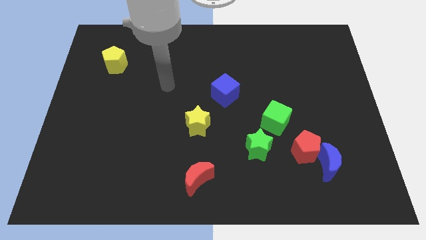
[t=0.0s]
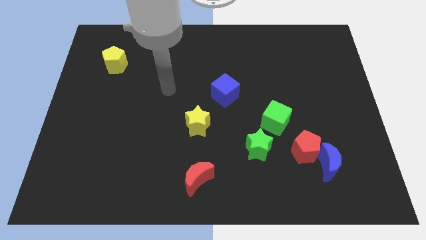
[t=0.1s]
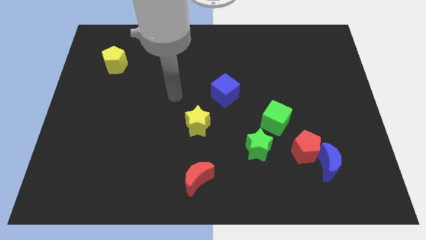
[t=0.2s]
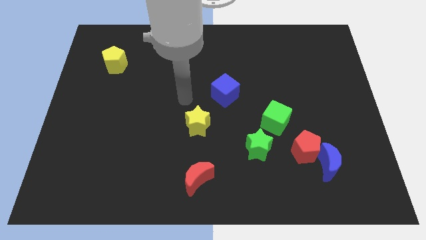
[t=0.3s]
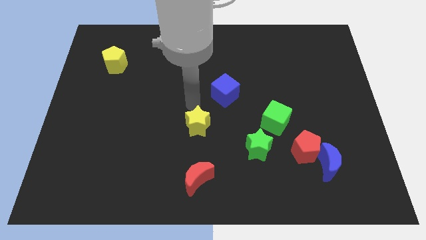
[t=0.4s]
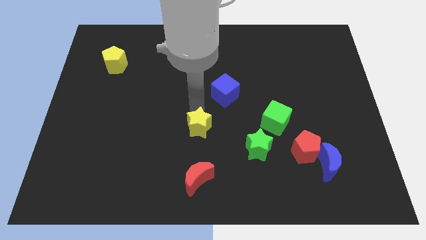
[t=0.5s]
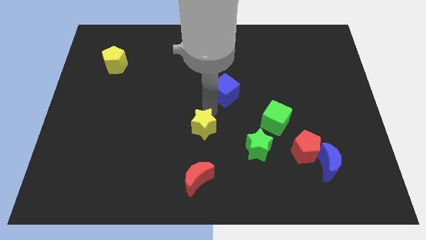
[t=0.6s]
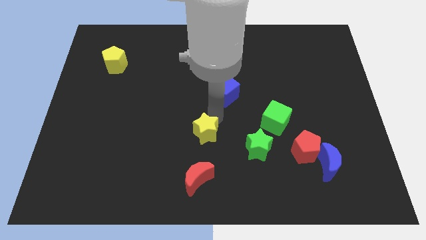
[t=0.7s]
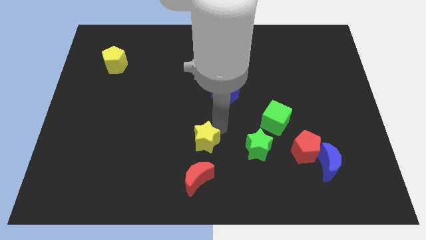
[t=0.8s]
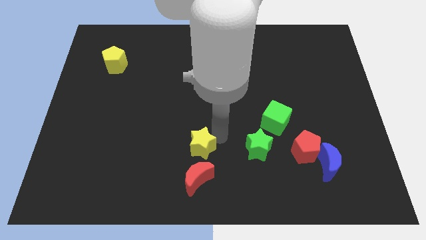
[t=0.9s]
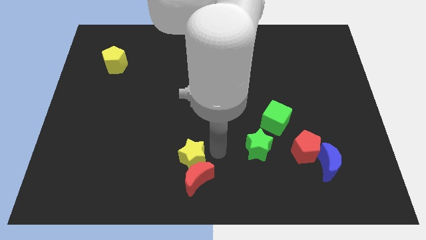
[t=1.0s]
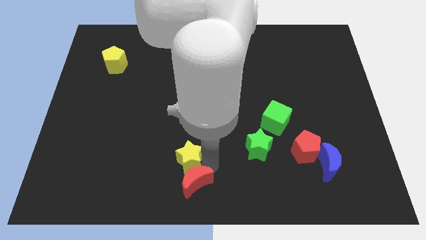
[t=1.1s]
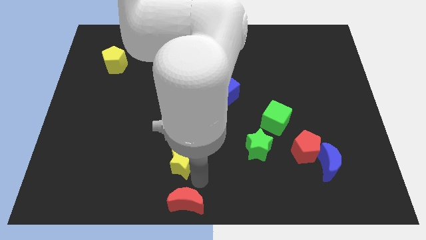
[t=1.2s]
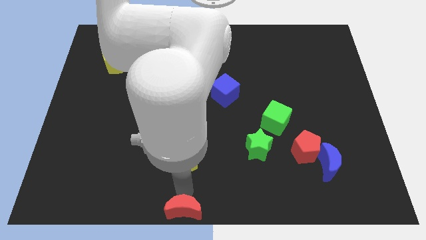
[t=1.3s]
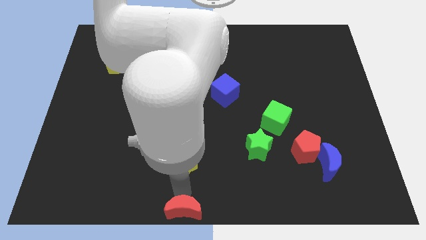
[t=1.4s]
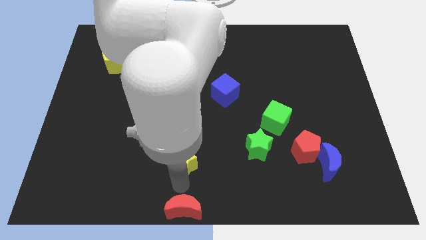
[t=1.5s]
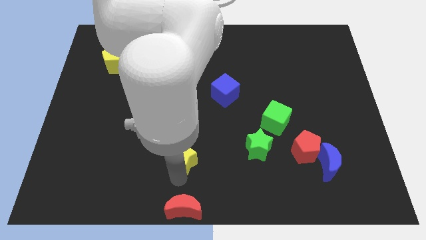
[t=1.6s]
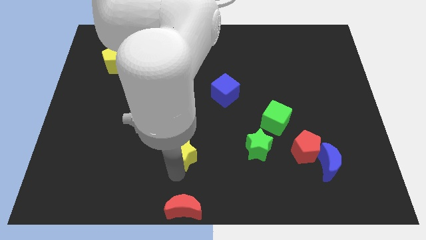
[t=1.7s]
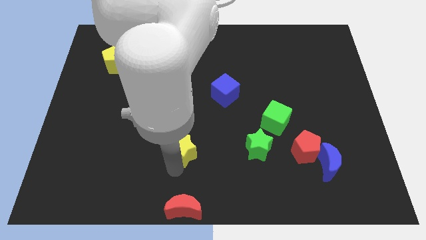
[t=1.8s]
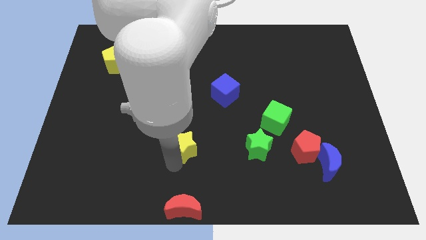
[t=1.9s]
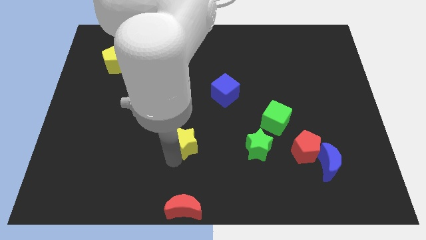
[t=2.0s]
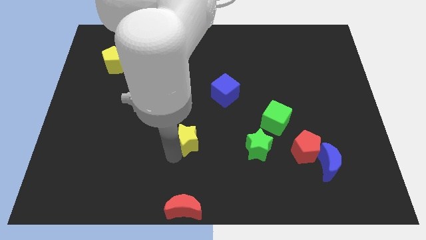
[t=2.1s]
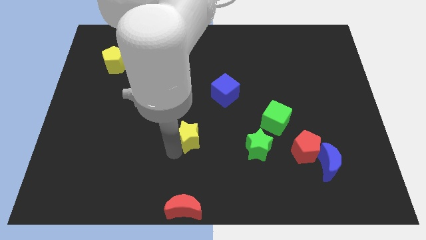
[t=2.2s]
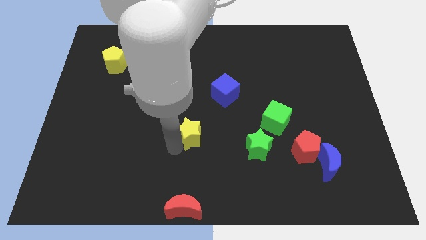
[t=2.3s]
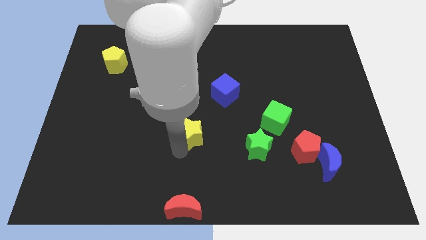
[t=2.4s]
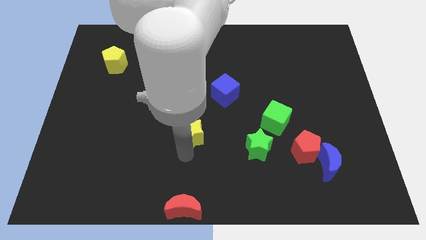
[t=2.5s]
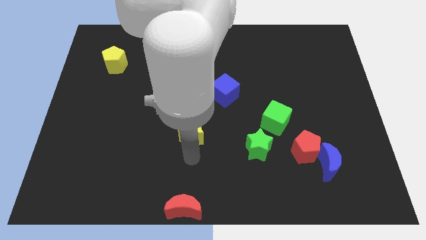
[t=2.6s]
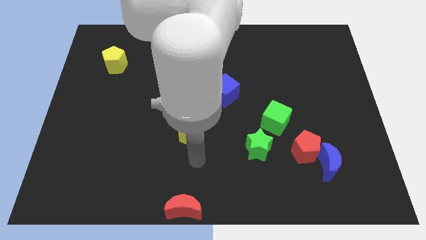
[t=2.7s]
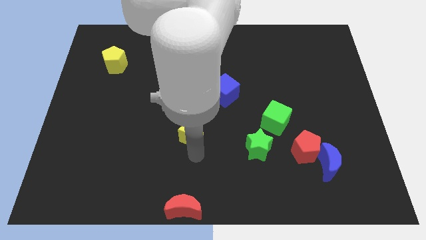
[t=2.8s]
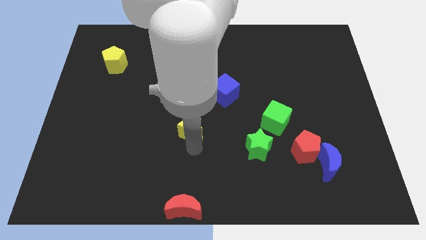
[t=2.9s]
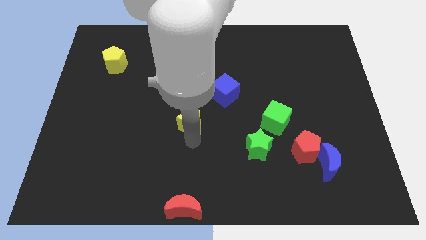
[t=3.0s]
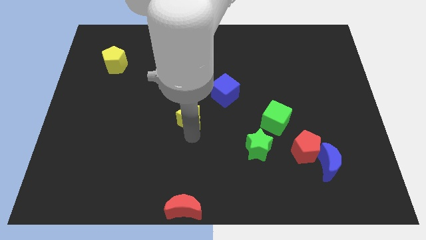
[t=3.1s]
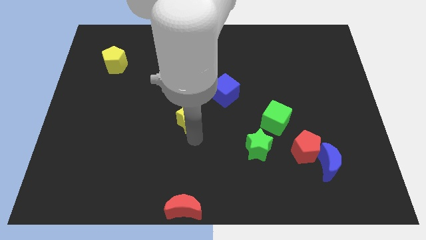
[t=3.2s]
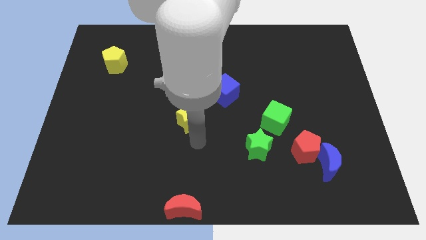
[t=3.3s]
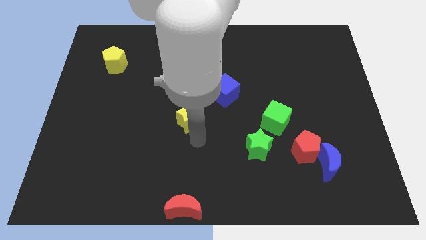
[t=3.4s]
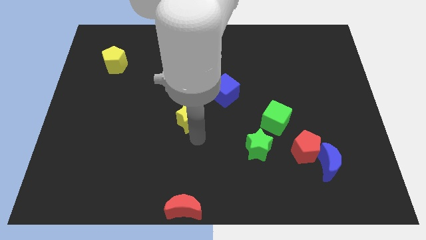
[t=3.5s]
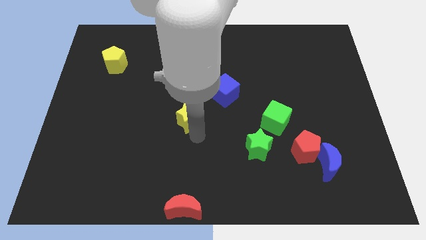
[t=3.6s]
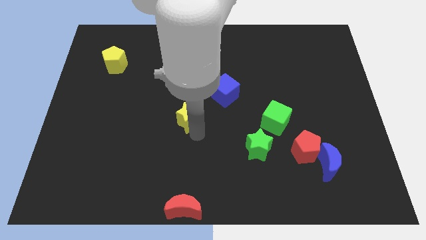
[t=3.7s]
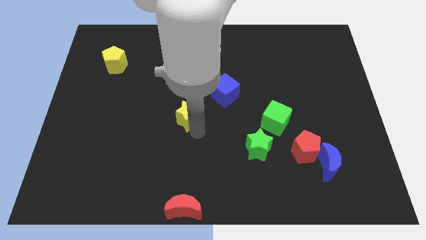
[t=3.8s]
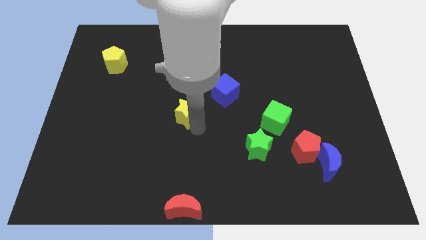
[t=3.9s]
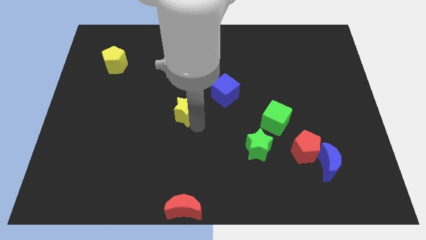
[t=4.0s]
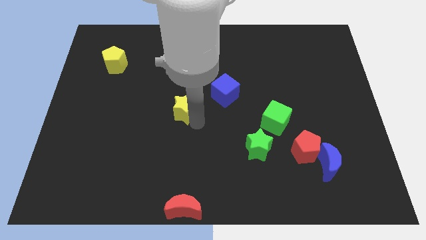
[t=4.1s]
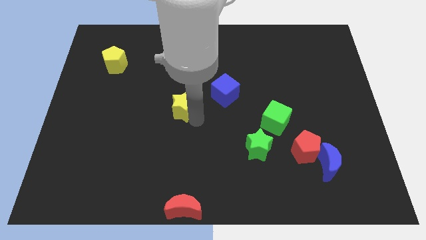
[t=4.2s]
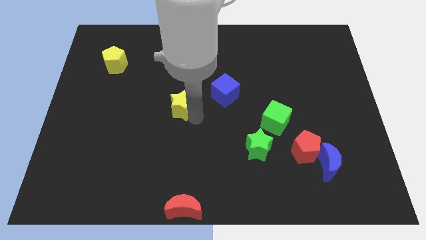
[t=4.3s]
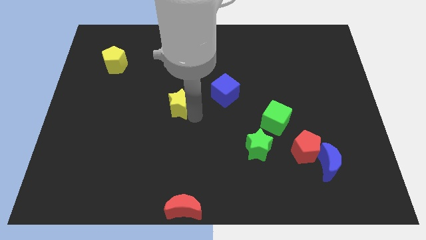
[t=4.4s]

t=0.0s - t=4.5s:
push the yellow star upwards and then left slightly

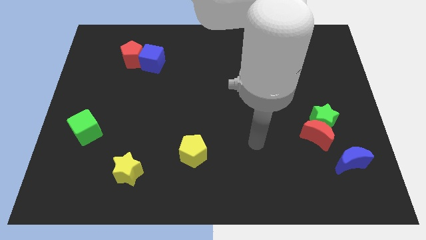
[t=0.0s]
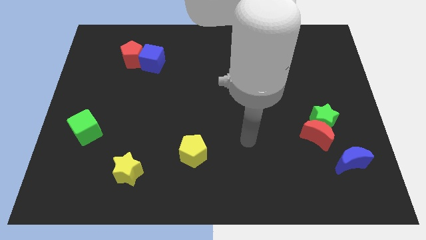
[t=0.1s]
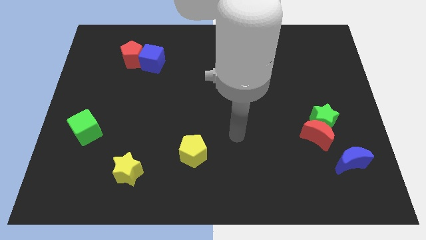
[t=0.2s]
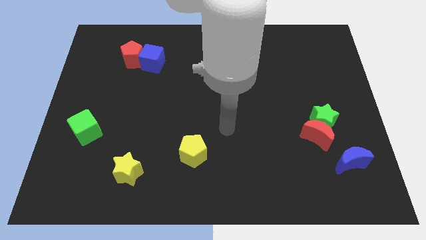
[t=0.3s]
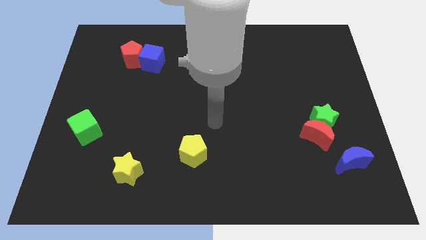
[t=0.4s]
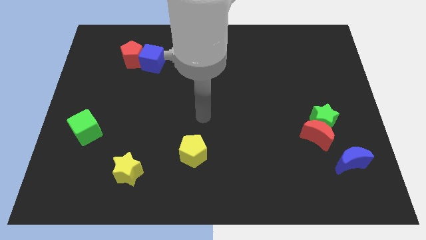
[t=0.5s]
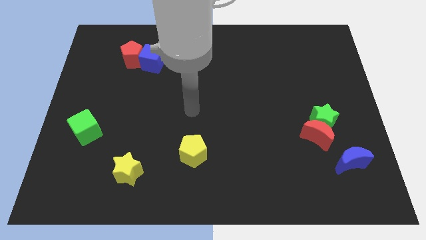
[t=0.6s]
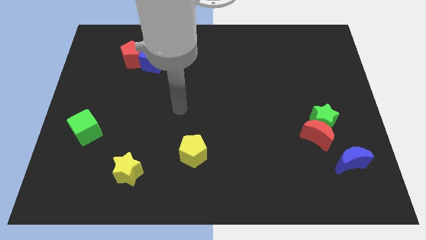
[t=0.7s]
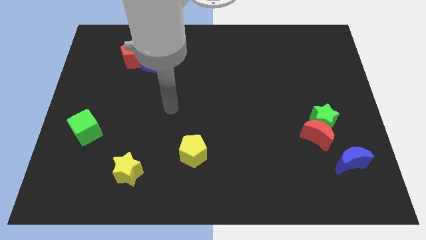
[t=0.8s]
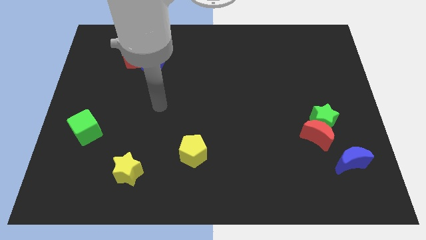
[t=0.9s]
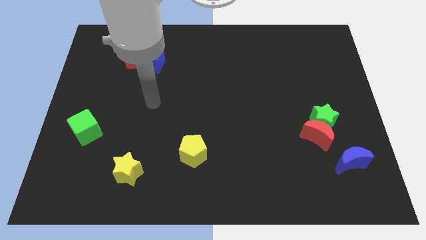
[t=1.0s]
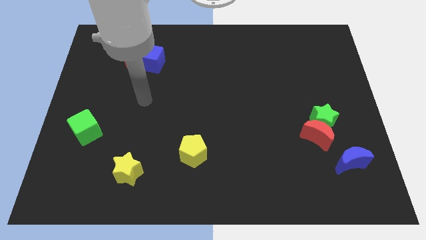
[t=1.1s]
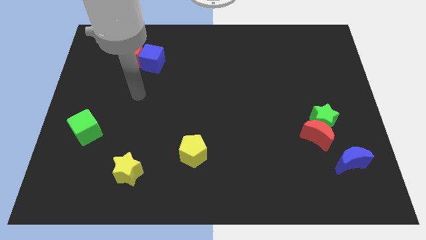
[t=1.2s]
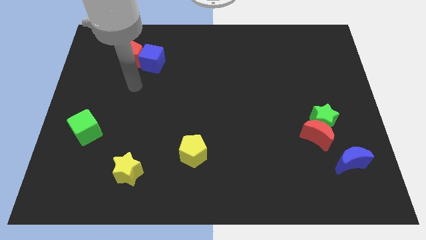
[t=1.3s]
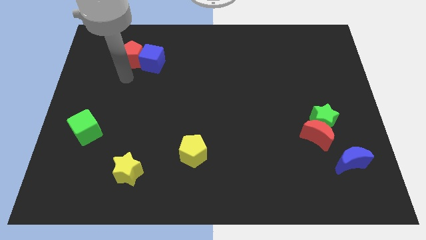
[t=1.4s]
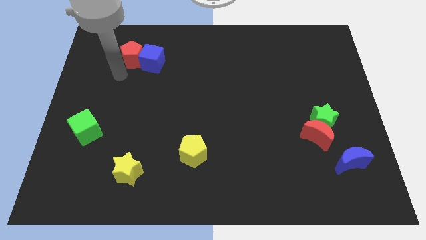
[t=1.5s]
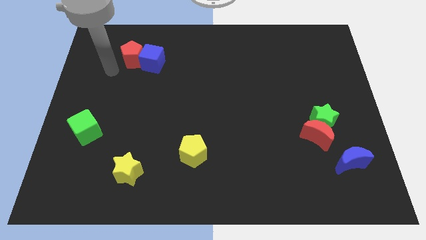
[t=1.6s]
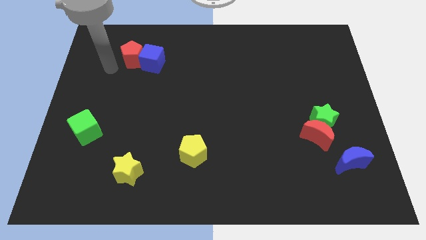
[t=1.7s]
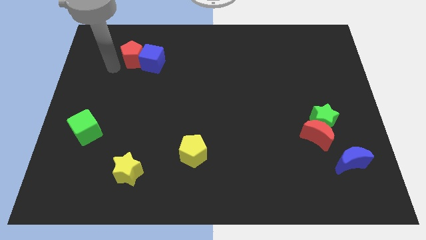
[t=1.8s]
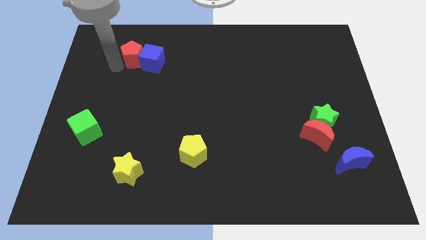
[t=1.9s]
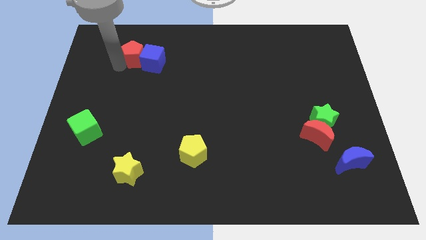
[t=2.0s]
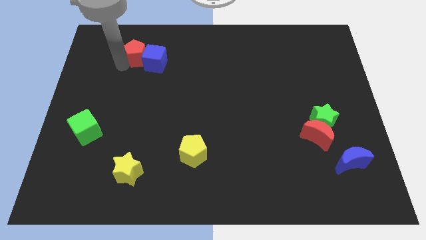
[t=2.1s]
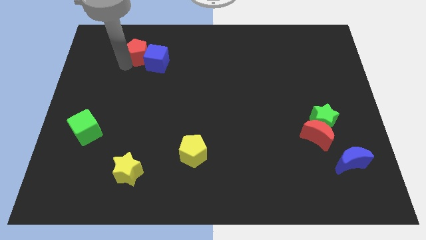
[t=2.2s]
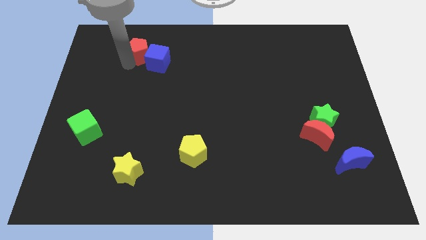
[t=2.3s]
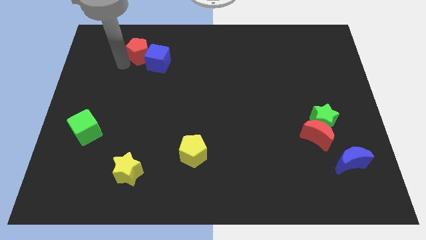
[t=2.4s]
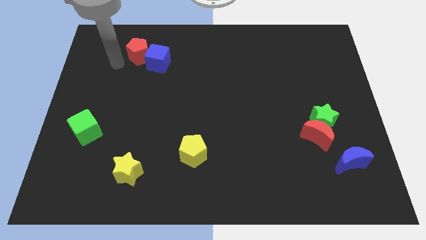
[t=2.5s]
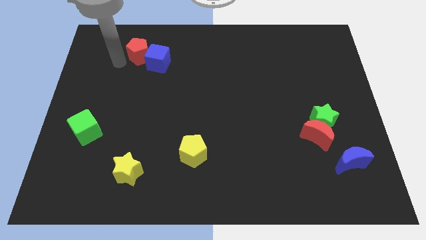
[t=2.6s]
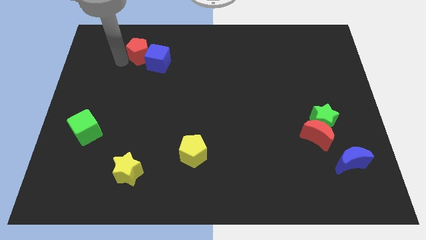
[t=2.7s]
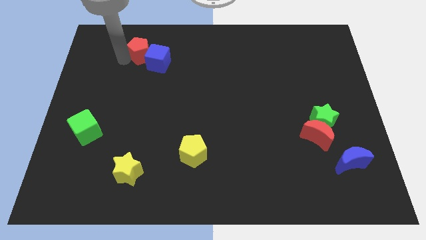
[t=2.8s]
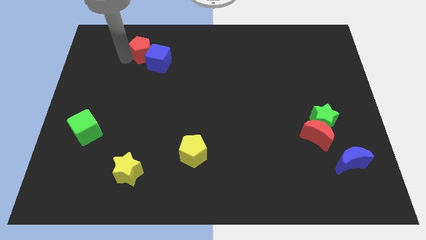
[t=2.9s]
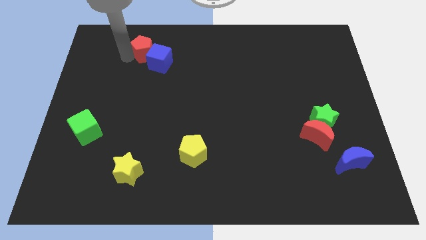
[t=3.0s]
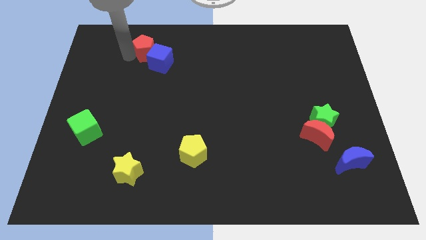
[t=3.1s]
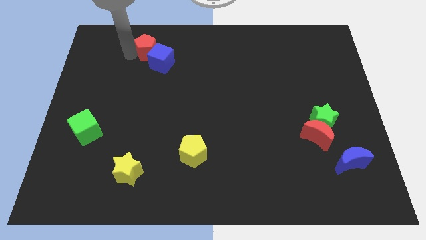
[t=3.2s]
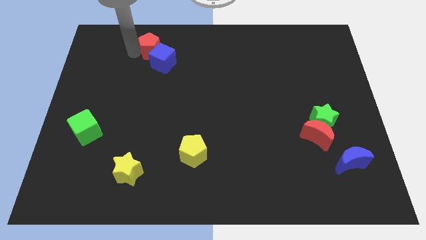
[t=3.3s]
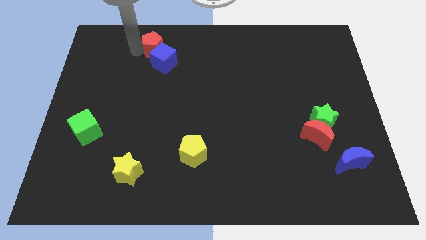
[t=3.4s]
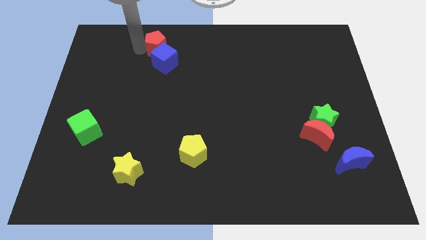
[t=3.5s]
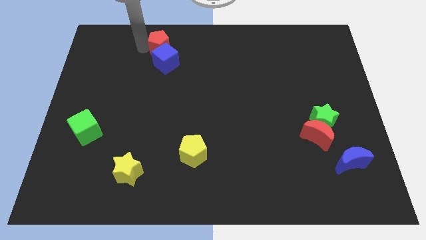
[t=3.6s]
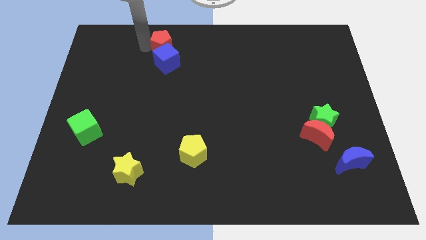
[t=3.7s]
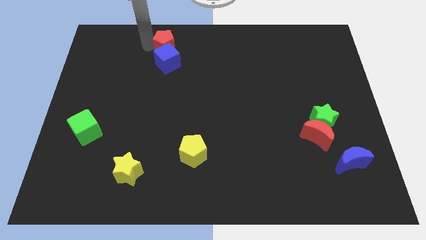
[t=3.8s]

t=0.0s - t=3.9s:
slide the red pentagon a little right
